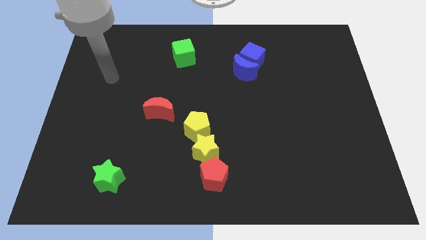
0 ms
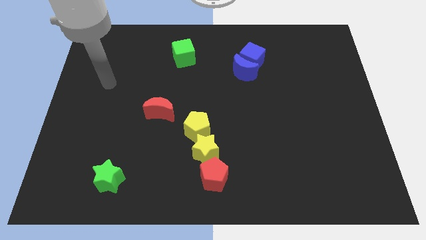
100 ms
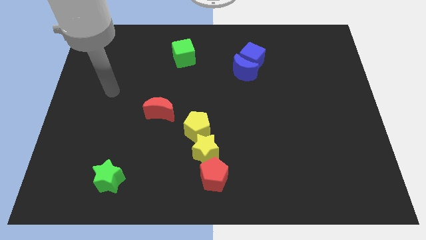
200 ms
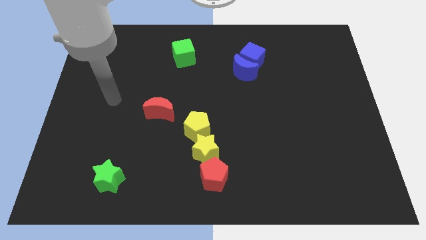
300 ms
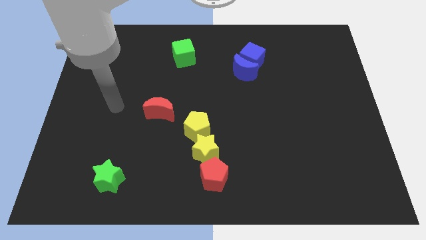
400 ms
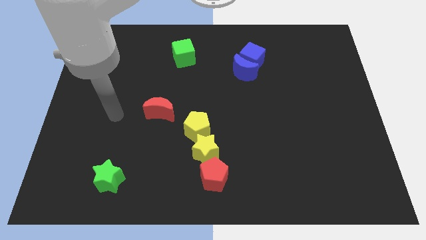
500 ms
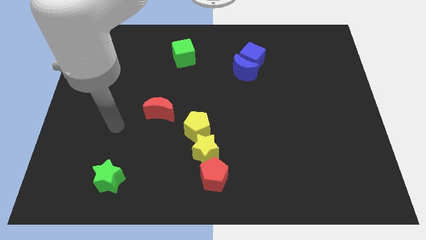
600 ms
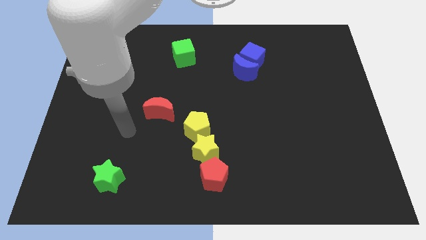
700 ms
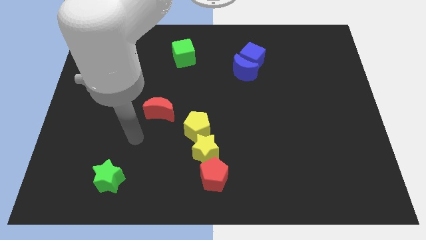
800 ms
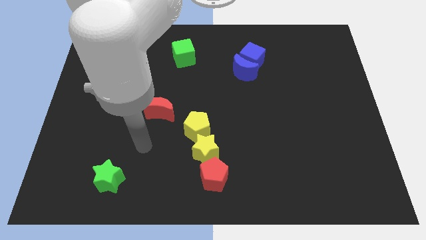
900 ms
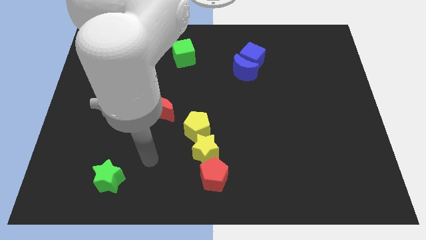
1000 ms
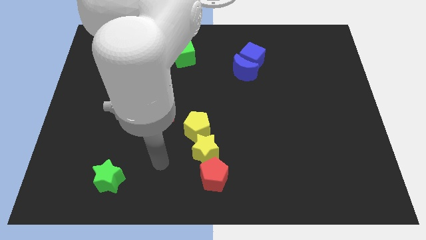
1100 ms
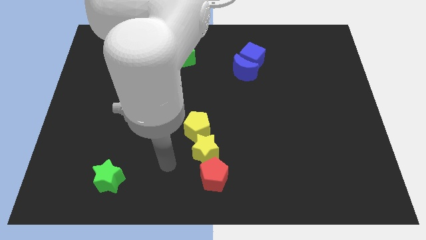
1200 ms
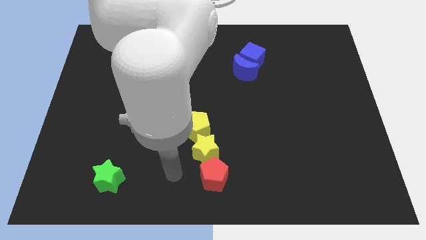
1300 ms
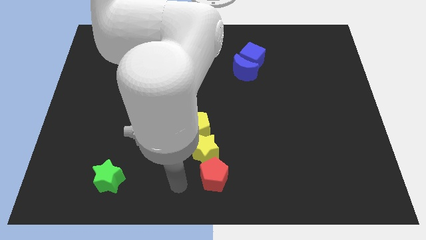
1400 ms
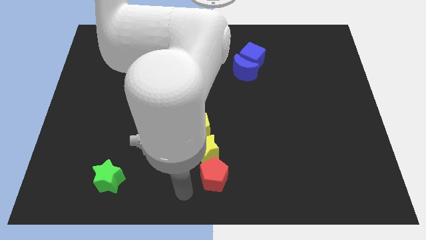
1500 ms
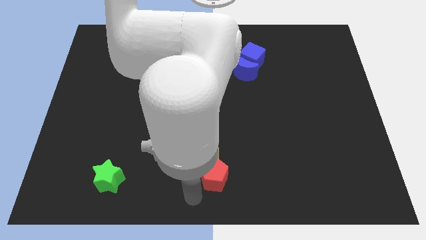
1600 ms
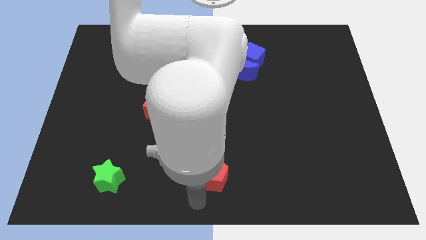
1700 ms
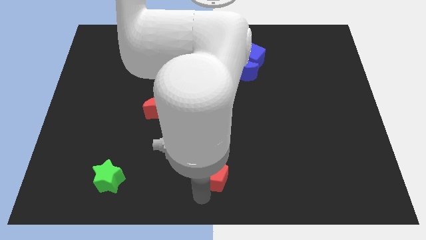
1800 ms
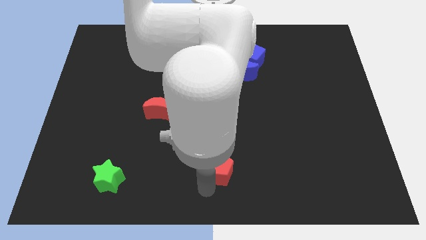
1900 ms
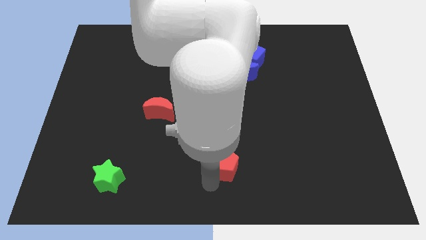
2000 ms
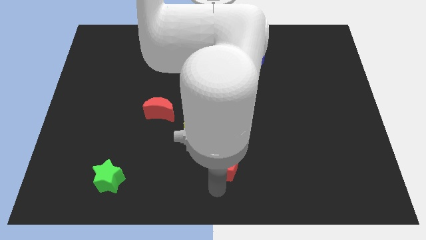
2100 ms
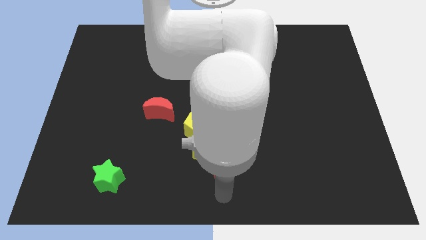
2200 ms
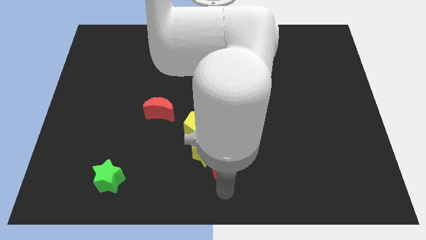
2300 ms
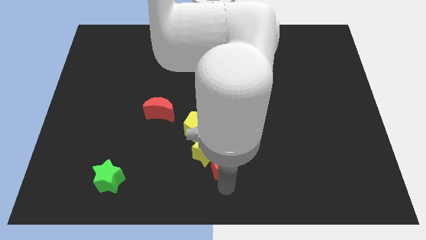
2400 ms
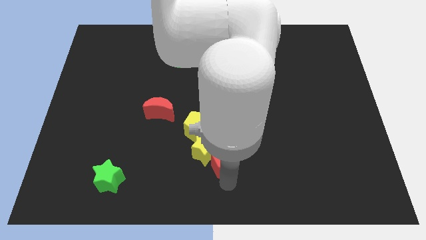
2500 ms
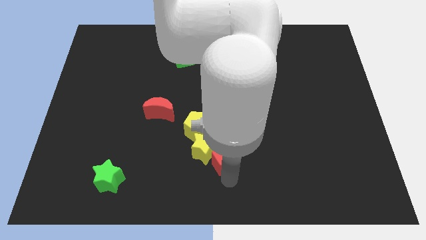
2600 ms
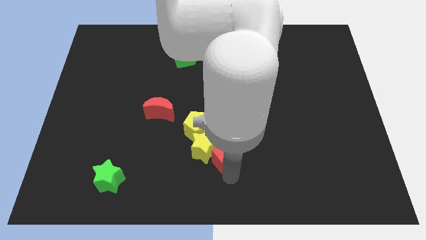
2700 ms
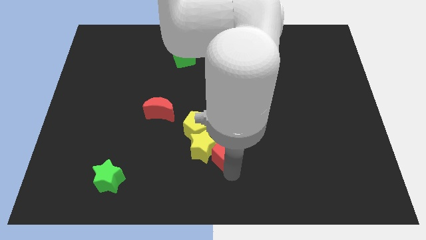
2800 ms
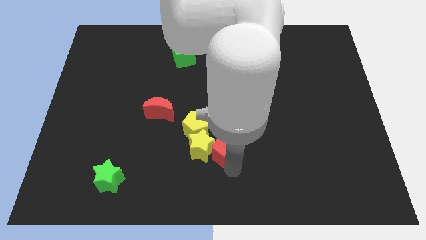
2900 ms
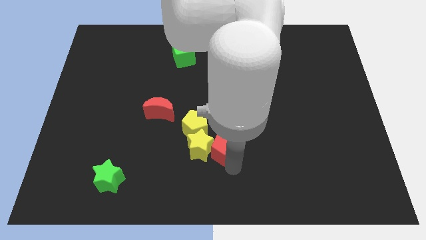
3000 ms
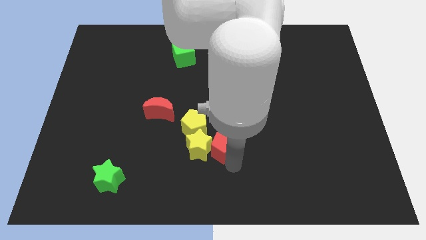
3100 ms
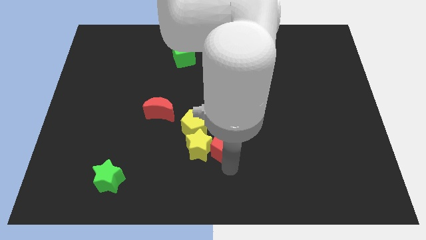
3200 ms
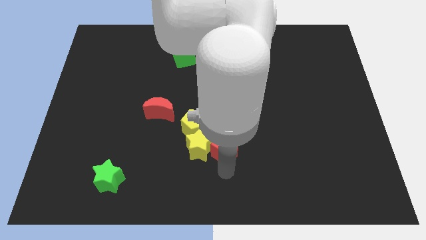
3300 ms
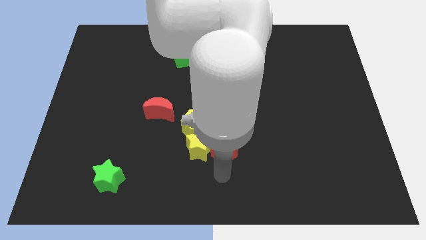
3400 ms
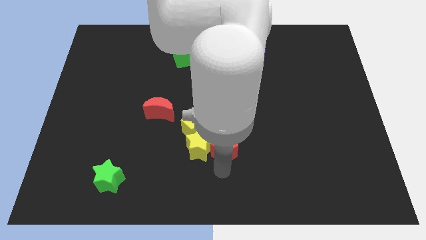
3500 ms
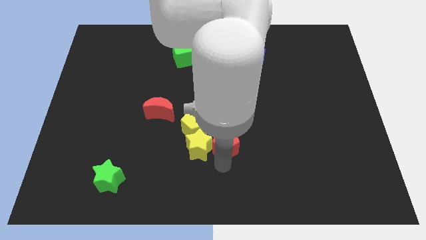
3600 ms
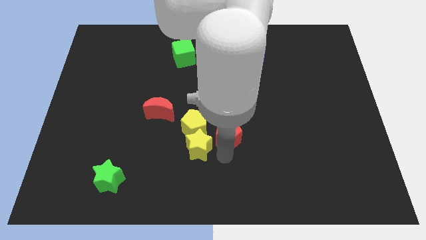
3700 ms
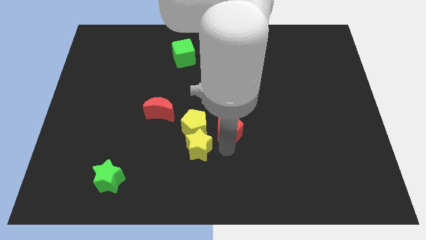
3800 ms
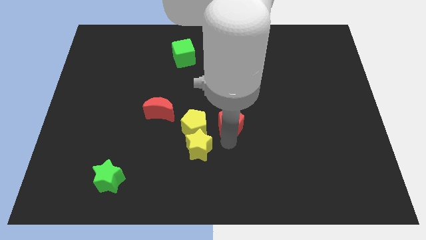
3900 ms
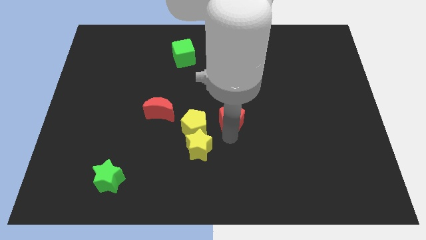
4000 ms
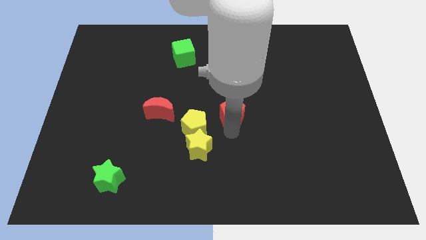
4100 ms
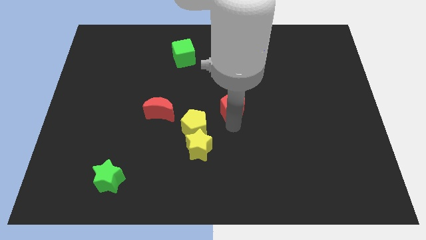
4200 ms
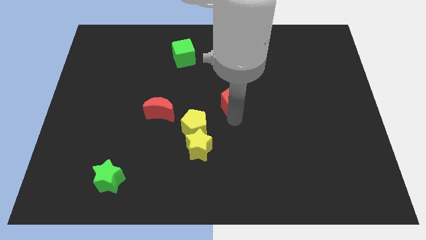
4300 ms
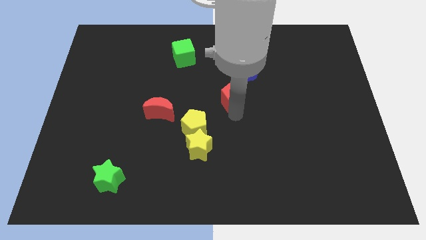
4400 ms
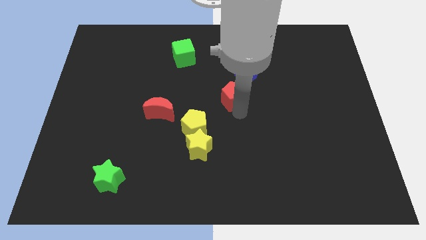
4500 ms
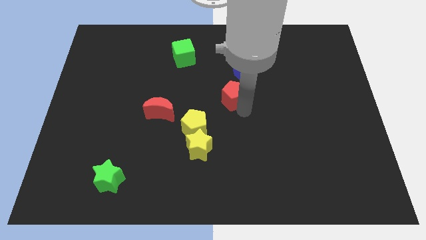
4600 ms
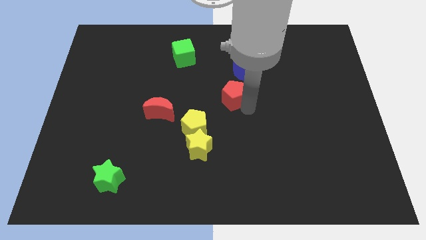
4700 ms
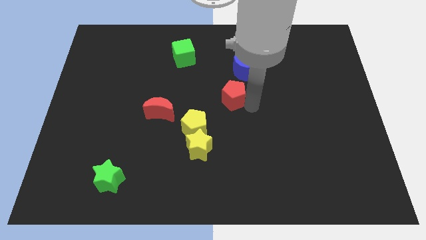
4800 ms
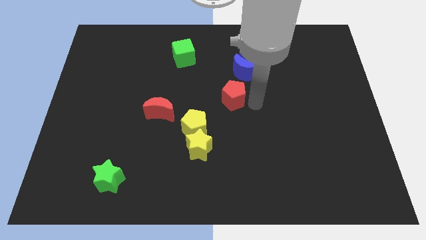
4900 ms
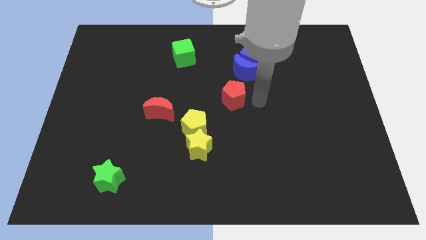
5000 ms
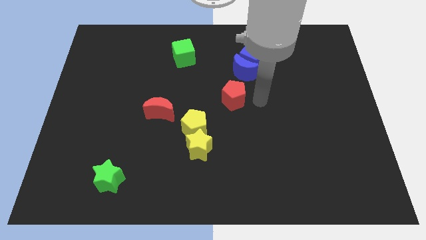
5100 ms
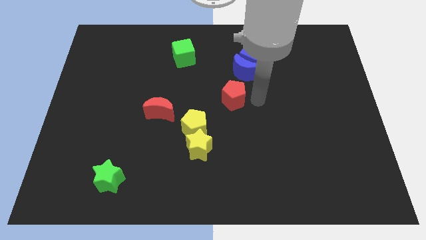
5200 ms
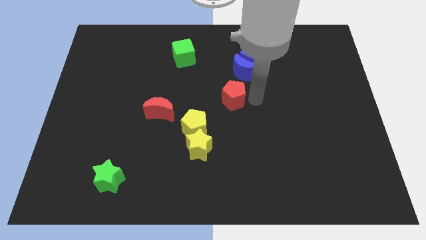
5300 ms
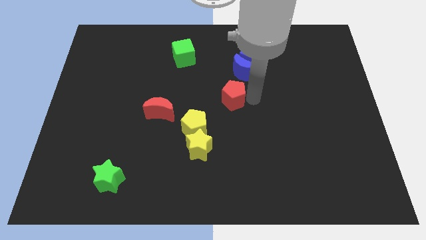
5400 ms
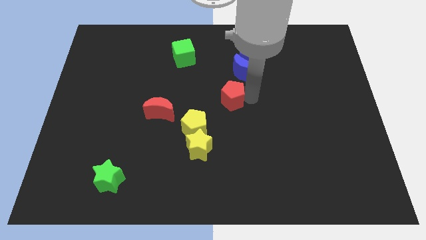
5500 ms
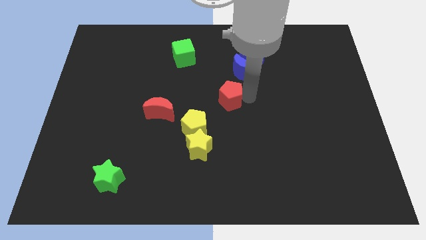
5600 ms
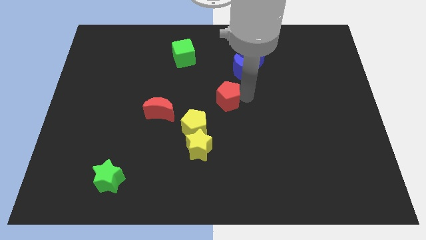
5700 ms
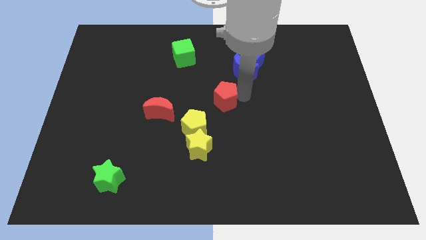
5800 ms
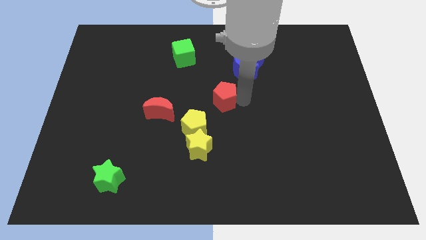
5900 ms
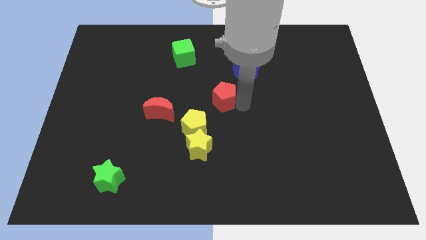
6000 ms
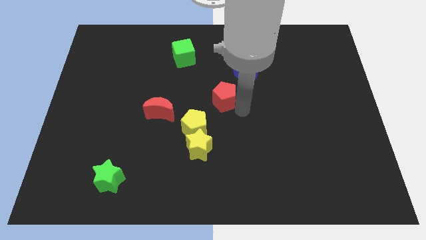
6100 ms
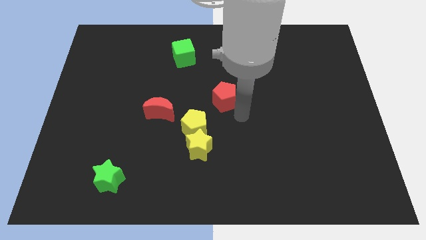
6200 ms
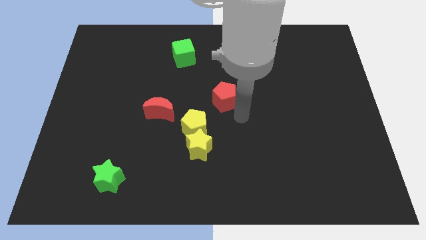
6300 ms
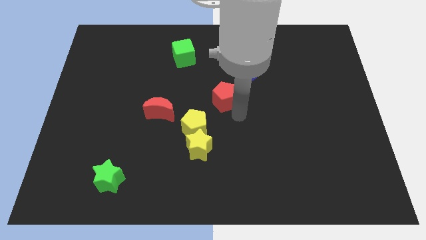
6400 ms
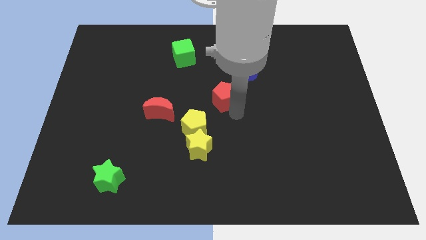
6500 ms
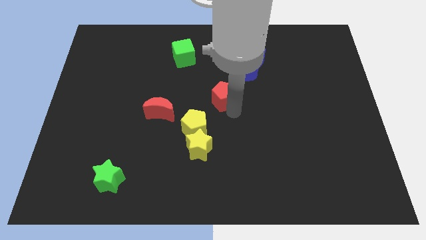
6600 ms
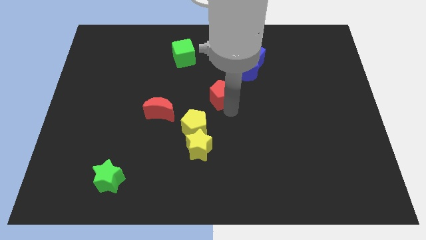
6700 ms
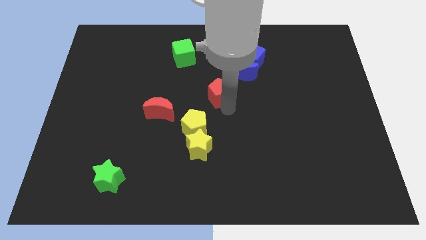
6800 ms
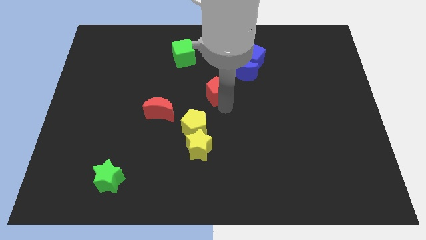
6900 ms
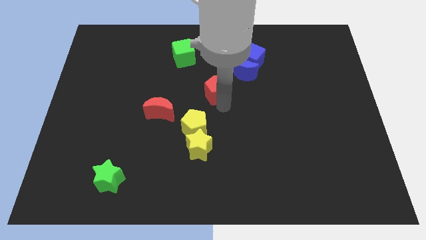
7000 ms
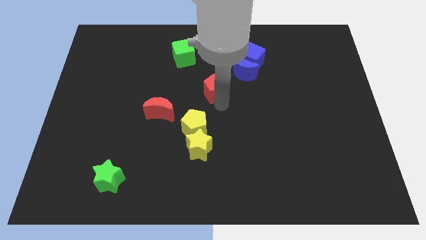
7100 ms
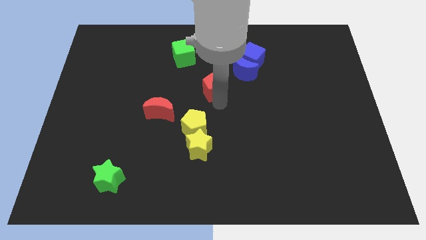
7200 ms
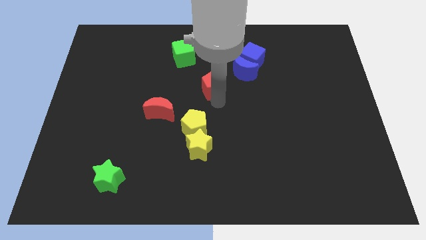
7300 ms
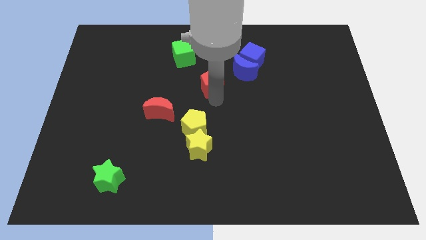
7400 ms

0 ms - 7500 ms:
push the red pentagon to the left side of the blue moon
